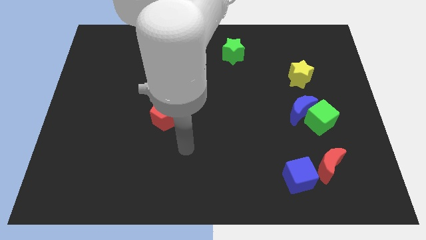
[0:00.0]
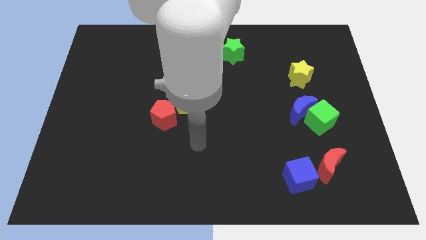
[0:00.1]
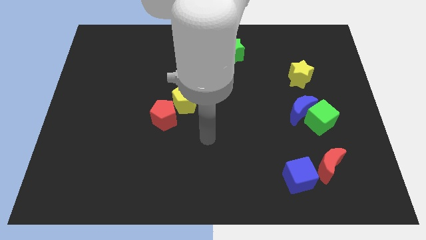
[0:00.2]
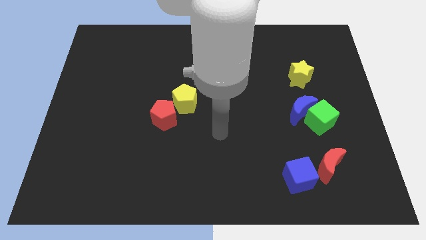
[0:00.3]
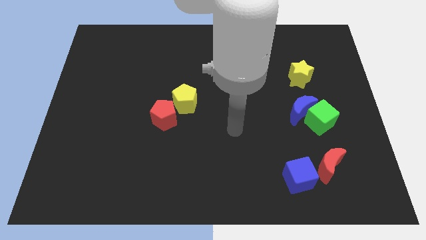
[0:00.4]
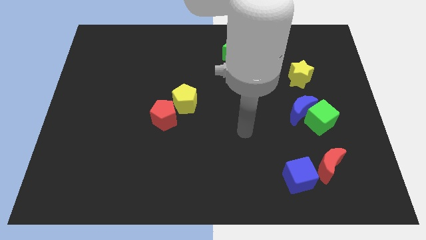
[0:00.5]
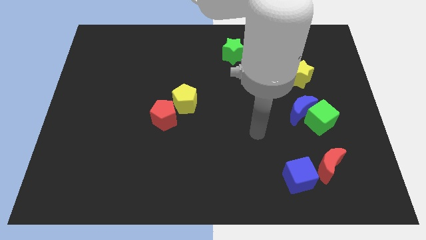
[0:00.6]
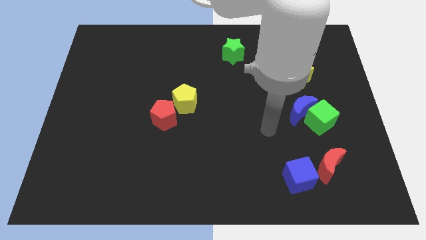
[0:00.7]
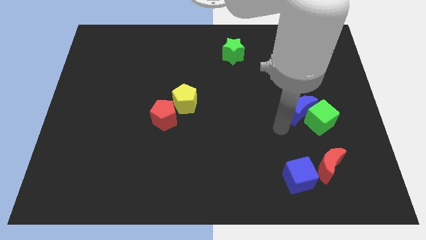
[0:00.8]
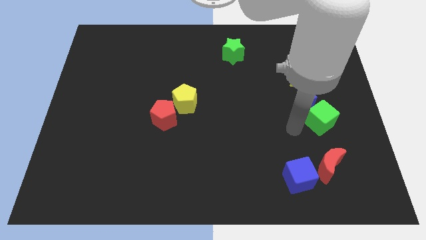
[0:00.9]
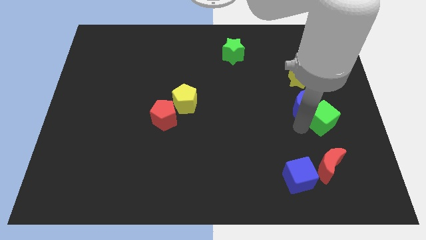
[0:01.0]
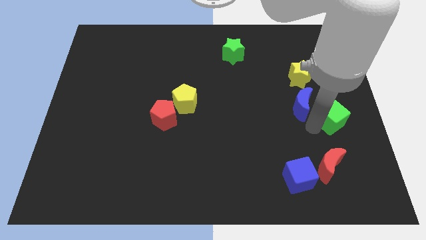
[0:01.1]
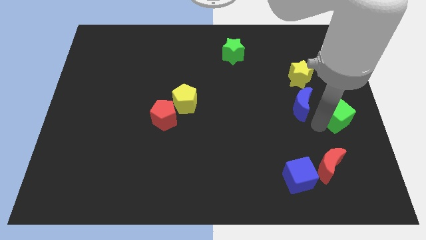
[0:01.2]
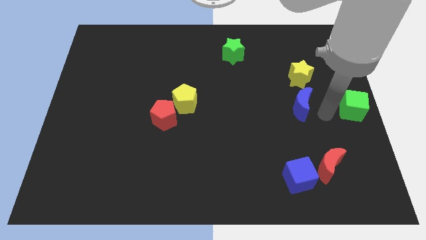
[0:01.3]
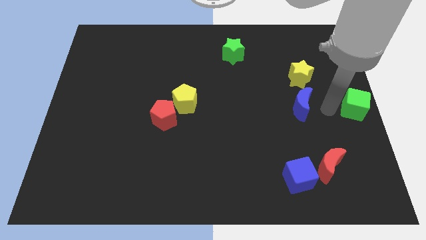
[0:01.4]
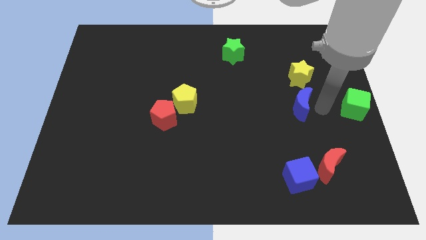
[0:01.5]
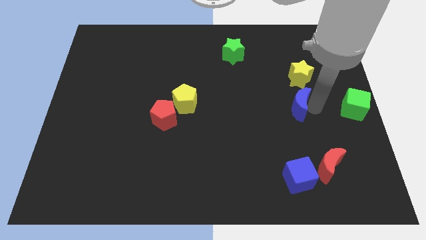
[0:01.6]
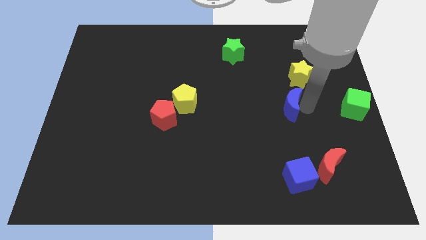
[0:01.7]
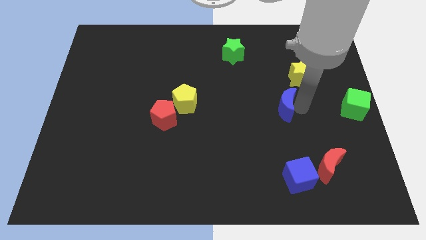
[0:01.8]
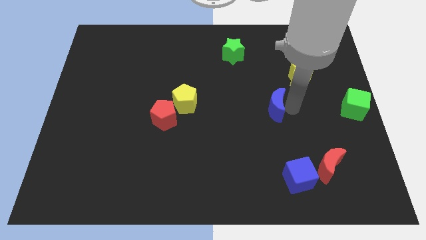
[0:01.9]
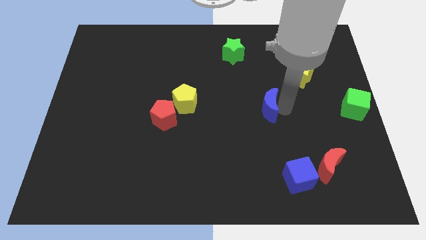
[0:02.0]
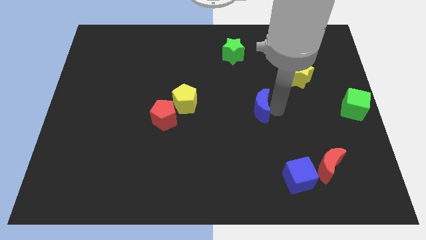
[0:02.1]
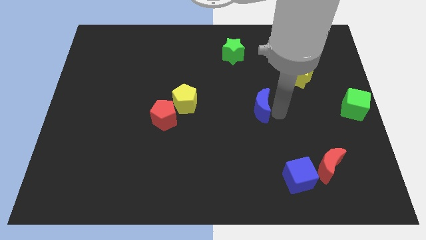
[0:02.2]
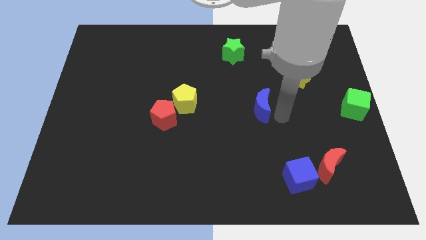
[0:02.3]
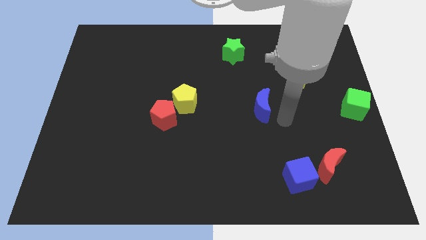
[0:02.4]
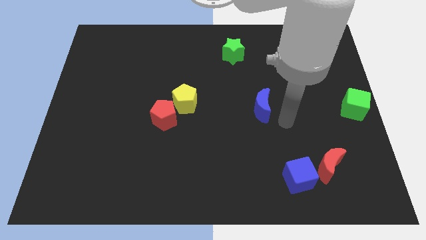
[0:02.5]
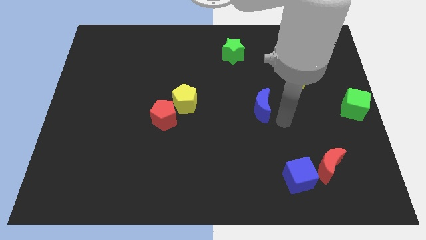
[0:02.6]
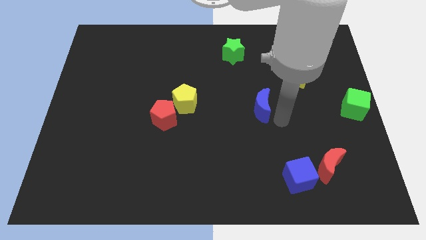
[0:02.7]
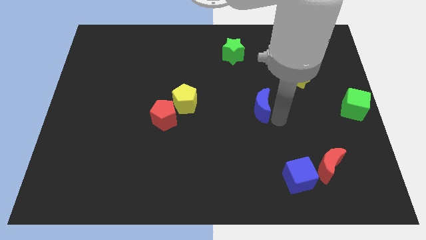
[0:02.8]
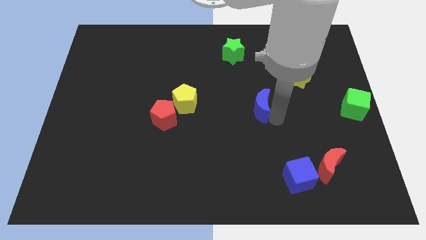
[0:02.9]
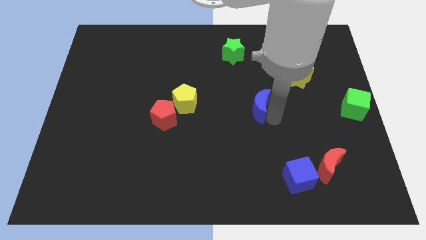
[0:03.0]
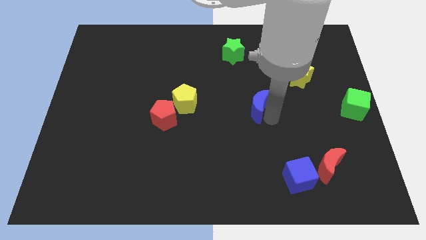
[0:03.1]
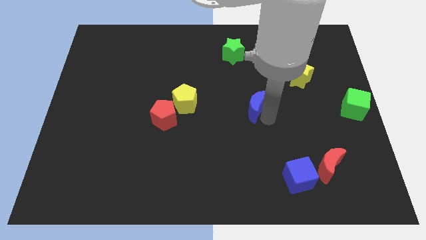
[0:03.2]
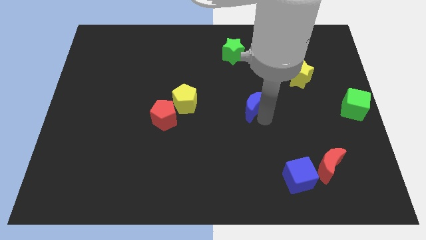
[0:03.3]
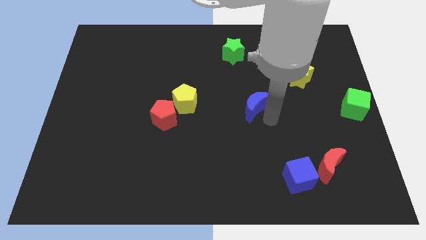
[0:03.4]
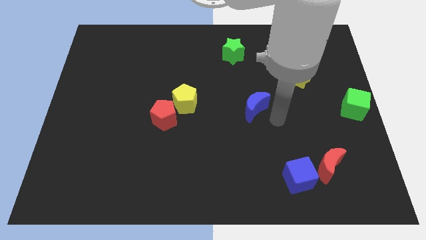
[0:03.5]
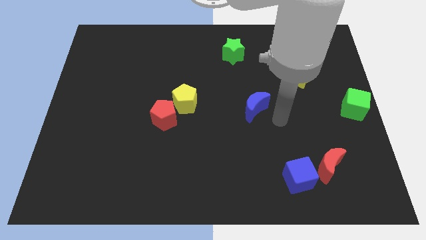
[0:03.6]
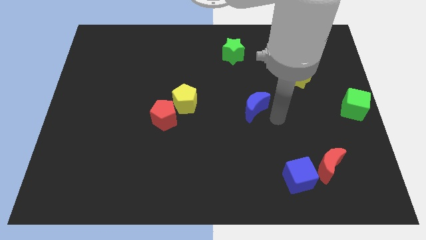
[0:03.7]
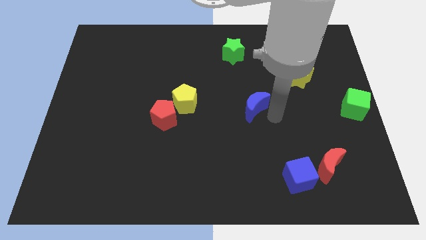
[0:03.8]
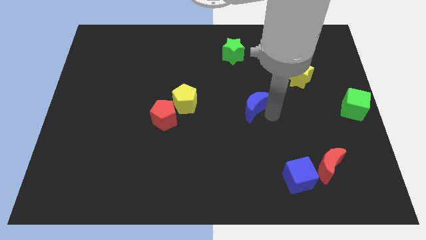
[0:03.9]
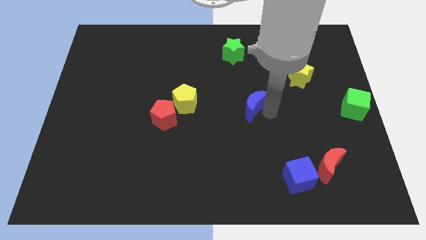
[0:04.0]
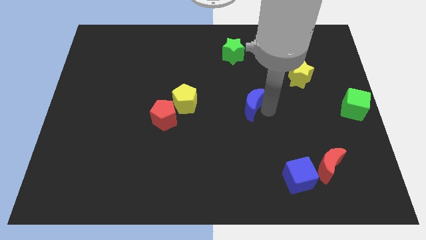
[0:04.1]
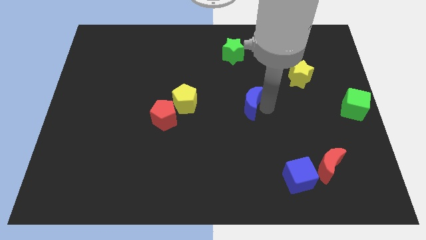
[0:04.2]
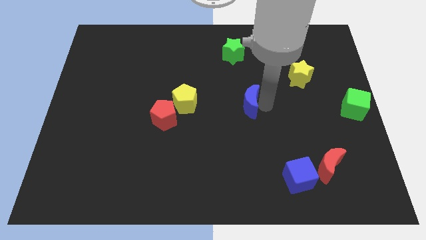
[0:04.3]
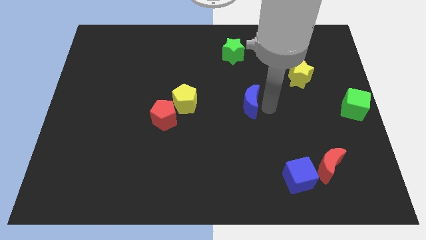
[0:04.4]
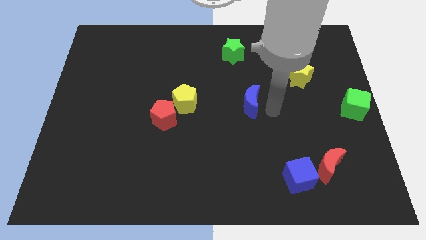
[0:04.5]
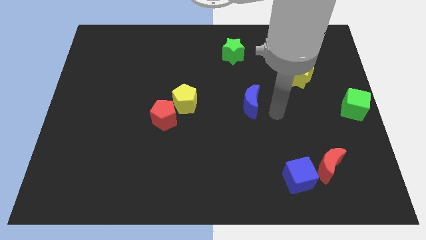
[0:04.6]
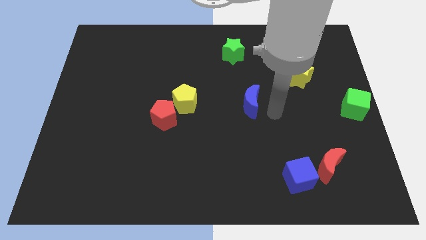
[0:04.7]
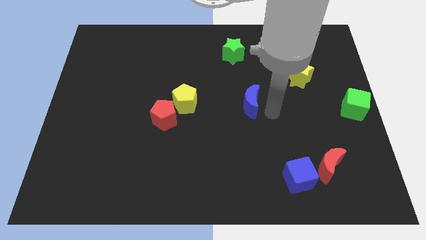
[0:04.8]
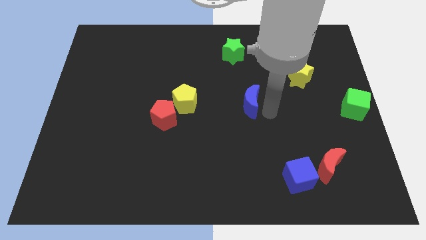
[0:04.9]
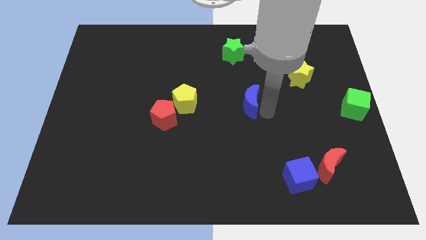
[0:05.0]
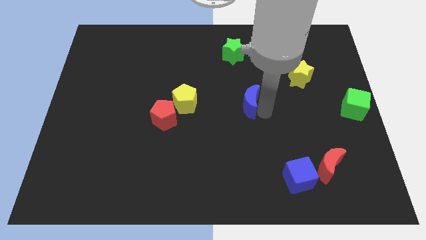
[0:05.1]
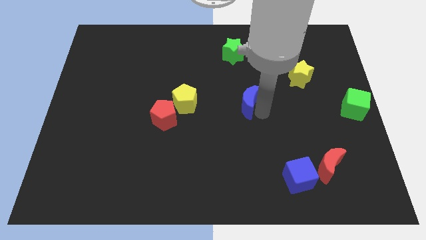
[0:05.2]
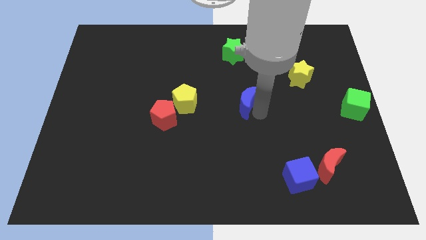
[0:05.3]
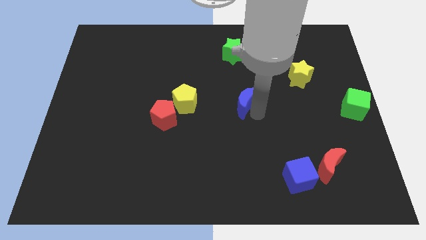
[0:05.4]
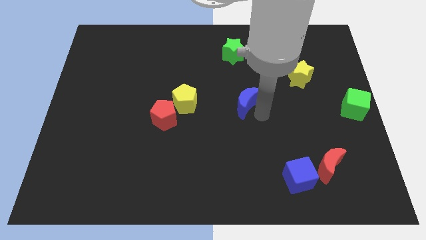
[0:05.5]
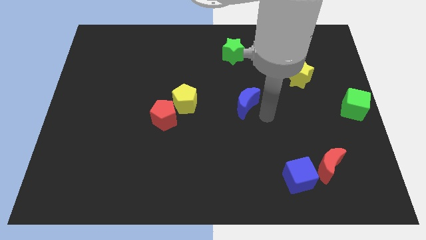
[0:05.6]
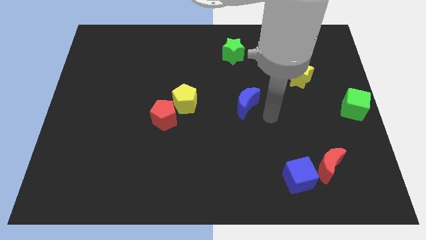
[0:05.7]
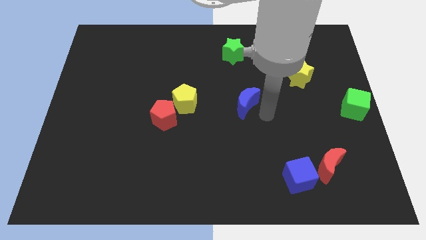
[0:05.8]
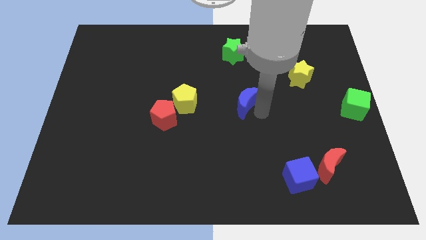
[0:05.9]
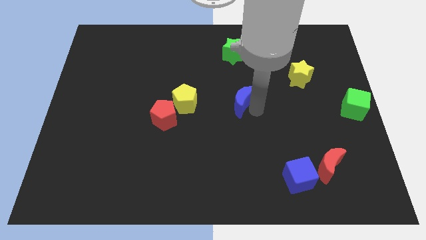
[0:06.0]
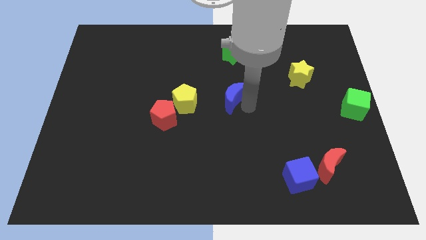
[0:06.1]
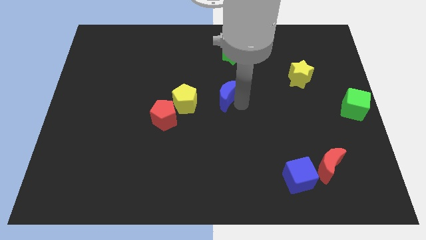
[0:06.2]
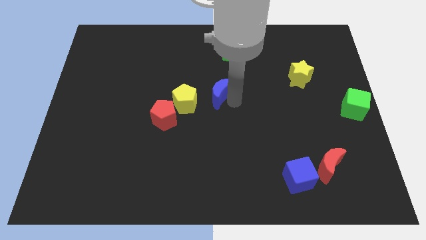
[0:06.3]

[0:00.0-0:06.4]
put the blue moon to the top right side of the yellow pentagon

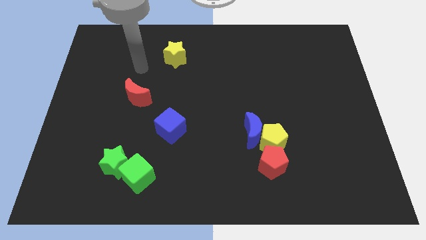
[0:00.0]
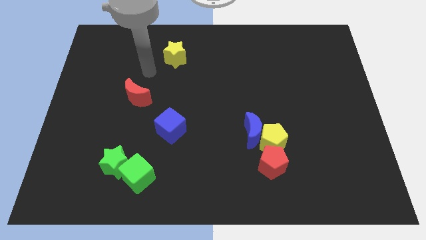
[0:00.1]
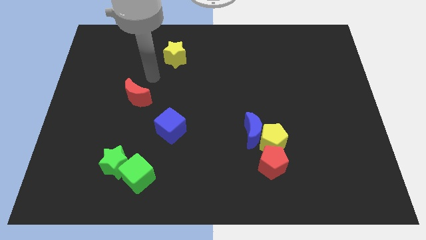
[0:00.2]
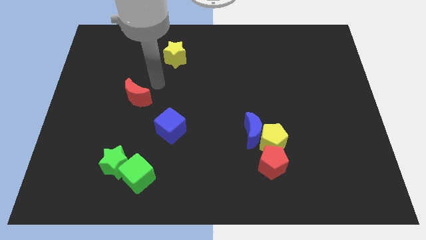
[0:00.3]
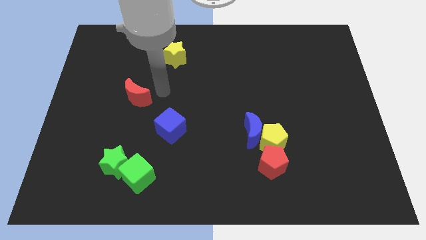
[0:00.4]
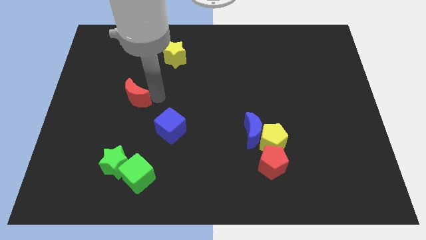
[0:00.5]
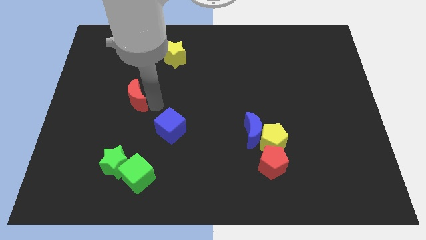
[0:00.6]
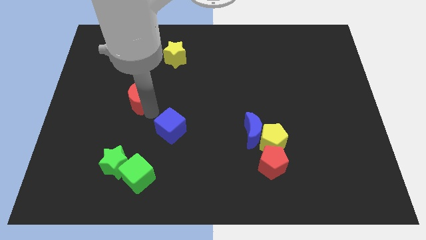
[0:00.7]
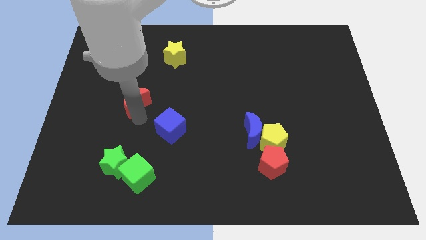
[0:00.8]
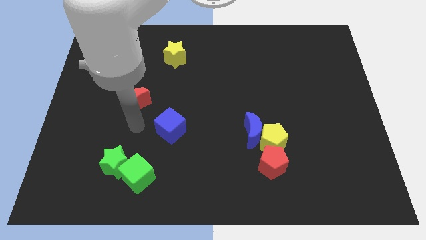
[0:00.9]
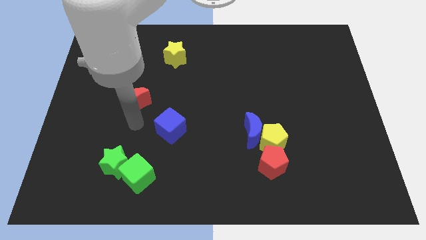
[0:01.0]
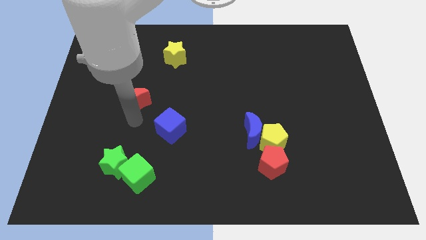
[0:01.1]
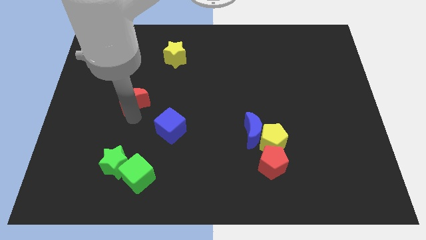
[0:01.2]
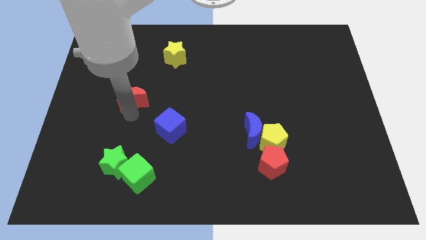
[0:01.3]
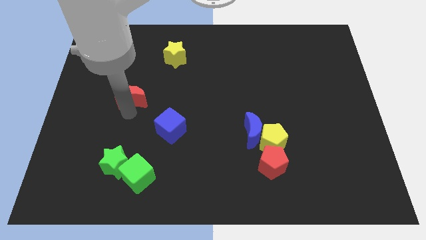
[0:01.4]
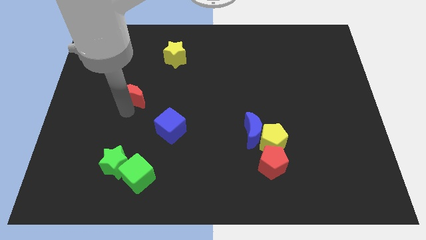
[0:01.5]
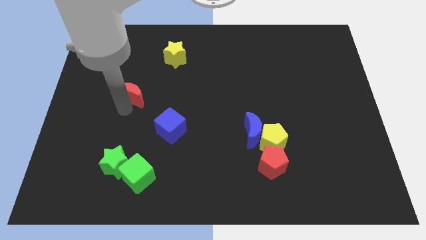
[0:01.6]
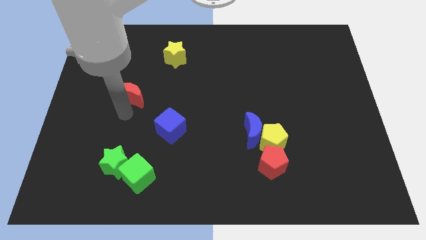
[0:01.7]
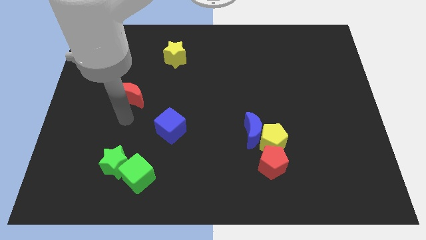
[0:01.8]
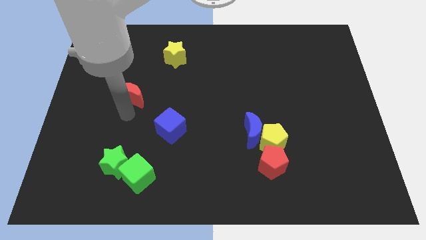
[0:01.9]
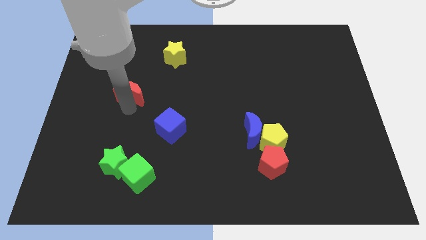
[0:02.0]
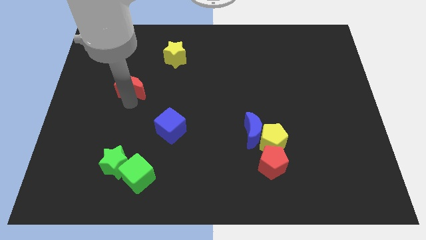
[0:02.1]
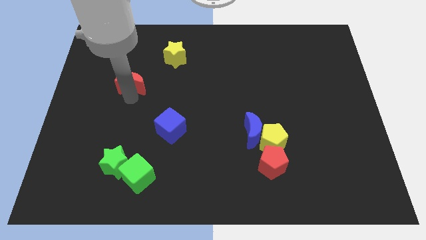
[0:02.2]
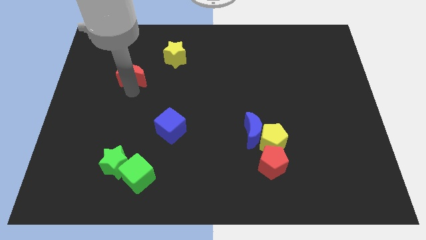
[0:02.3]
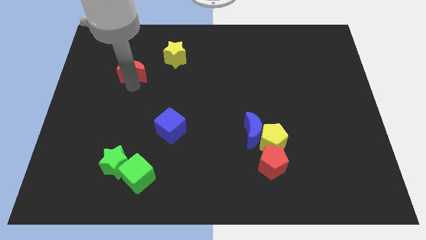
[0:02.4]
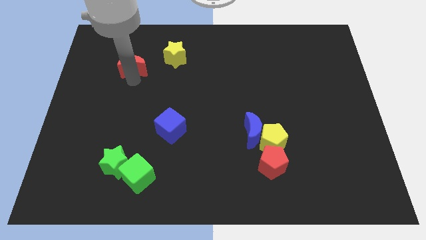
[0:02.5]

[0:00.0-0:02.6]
move the red moon left of the yellow star
